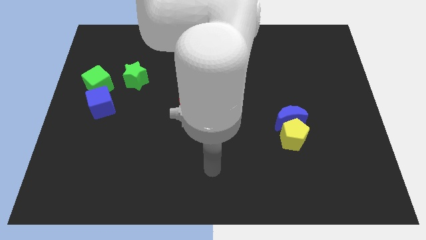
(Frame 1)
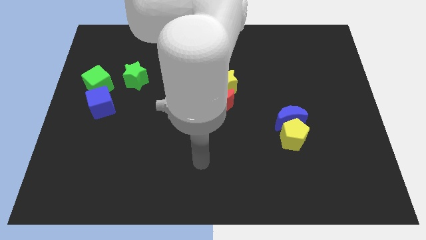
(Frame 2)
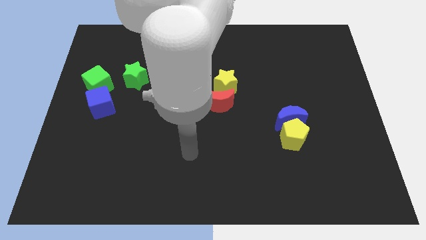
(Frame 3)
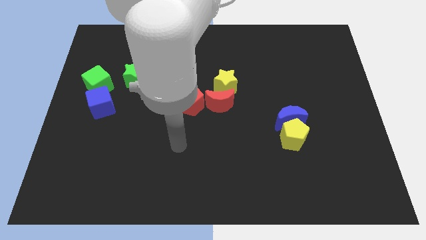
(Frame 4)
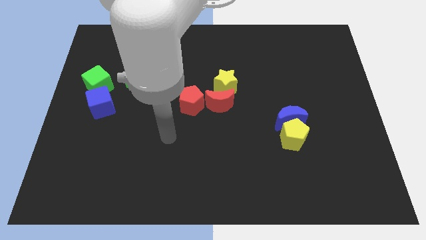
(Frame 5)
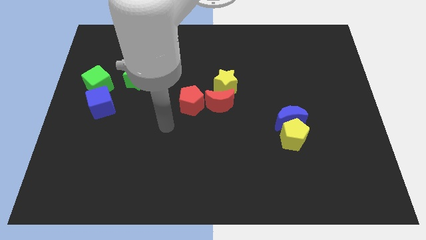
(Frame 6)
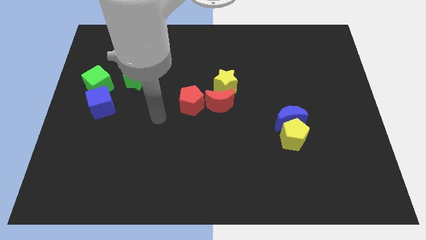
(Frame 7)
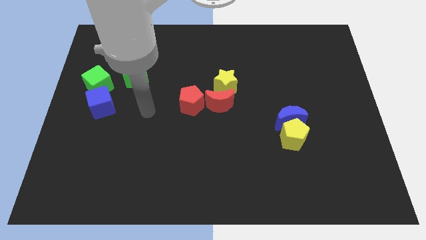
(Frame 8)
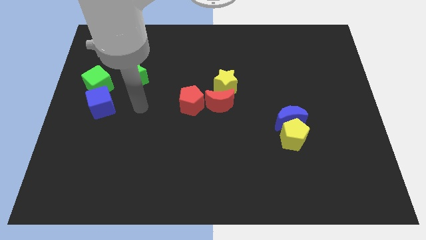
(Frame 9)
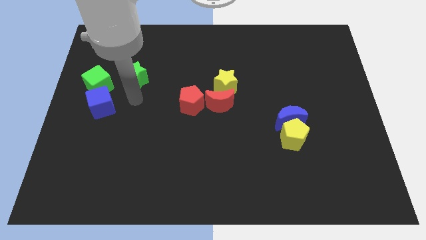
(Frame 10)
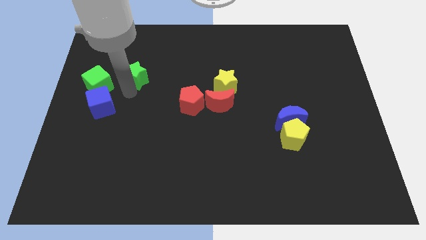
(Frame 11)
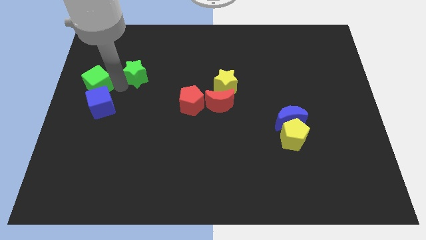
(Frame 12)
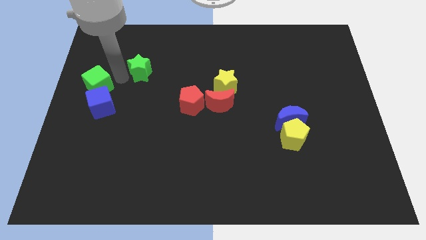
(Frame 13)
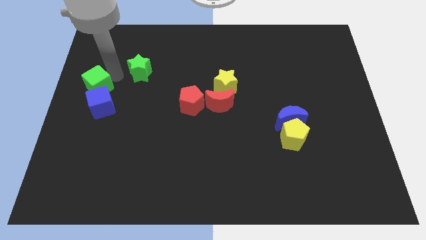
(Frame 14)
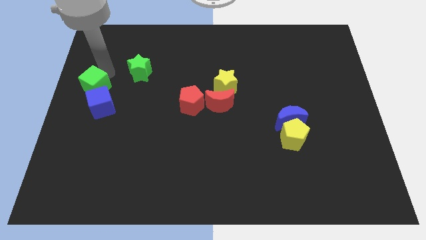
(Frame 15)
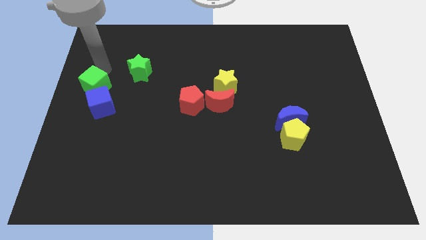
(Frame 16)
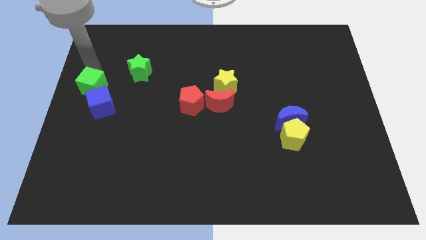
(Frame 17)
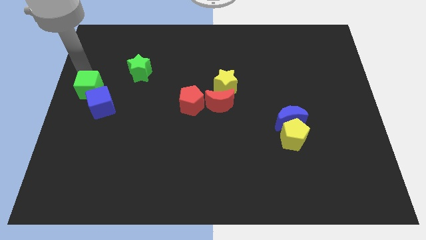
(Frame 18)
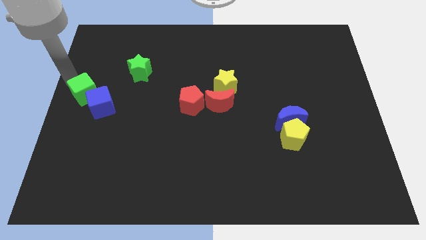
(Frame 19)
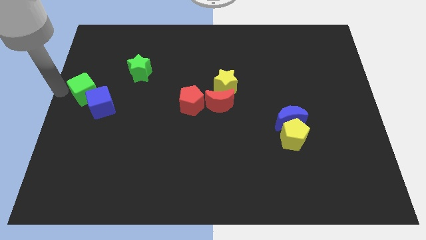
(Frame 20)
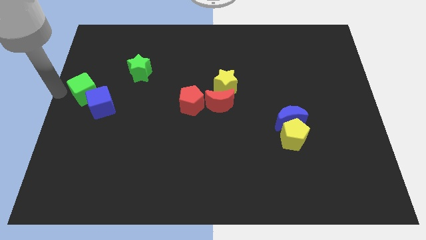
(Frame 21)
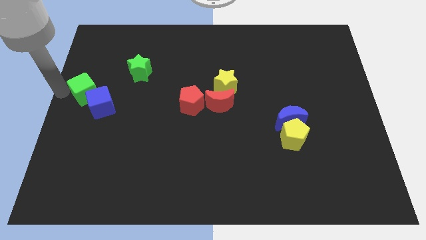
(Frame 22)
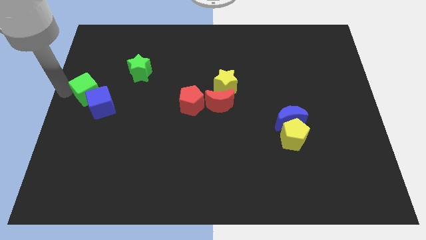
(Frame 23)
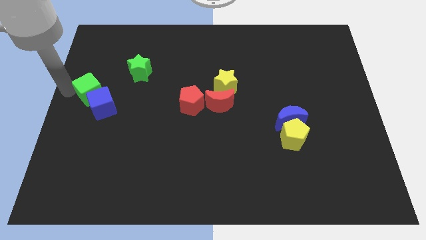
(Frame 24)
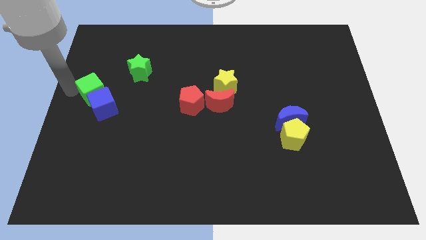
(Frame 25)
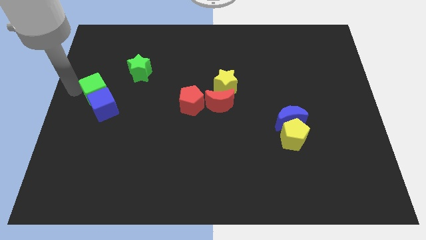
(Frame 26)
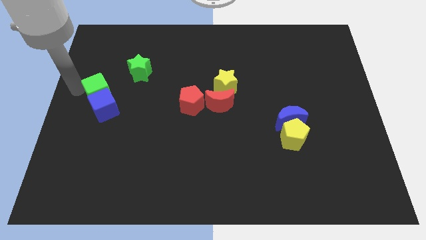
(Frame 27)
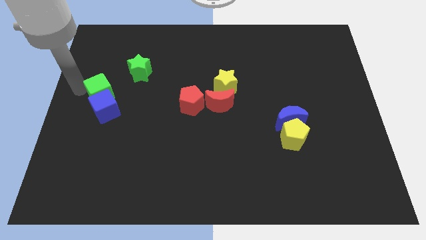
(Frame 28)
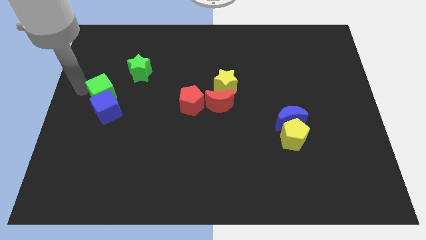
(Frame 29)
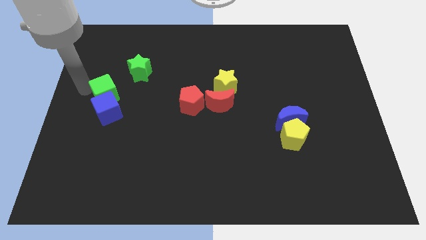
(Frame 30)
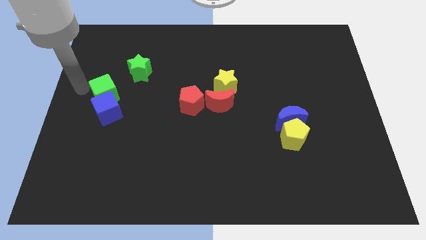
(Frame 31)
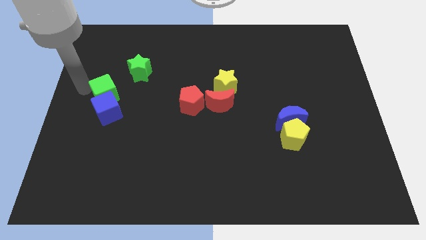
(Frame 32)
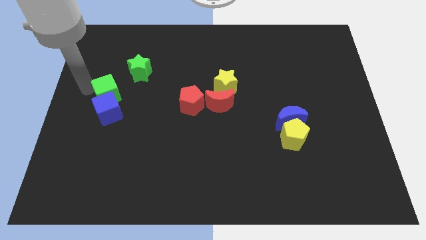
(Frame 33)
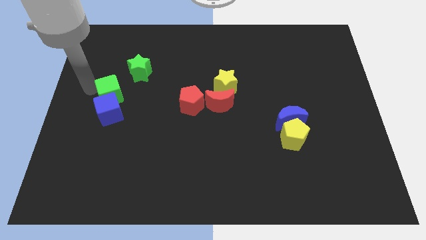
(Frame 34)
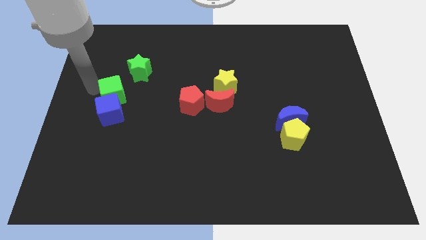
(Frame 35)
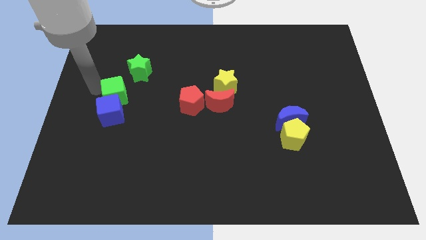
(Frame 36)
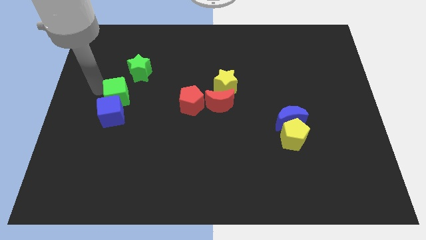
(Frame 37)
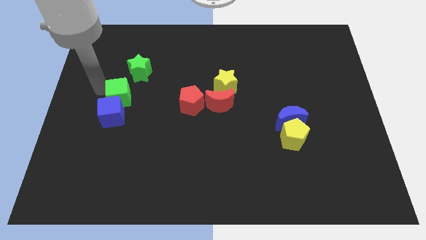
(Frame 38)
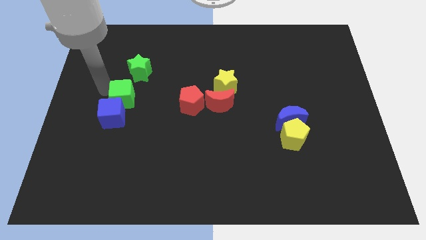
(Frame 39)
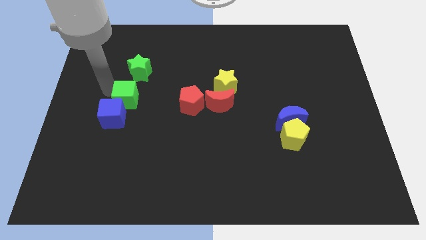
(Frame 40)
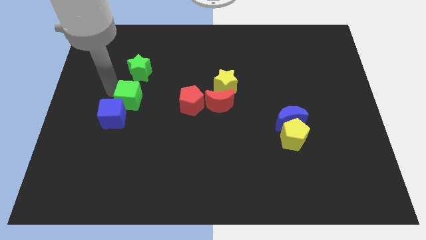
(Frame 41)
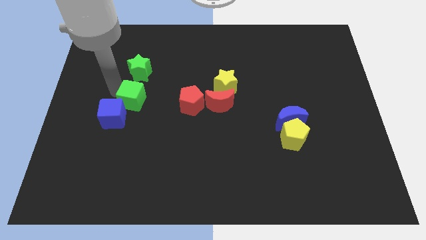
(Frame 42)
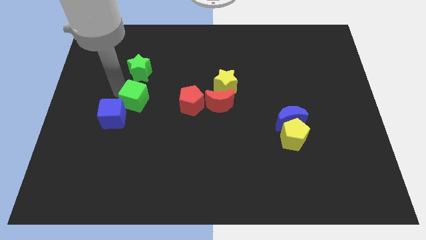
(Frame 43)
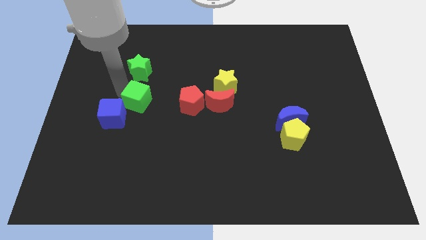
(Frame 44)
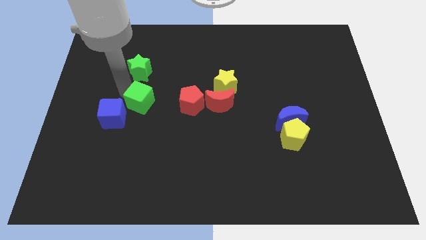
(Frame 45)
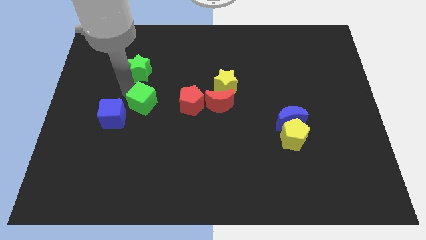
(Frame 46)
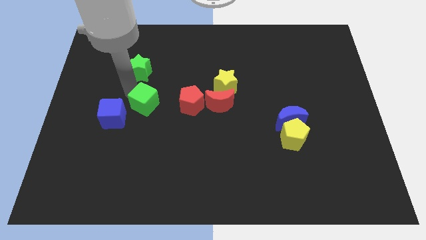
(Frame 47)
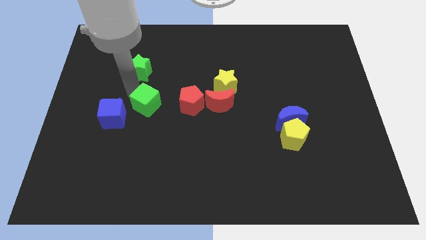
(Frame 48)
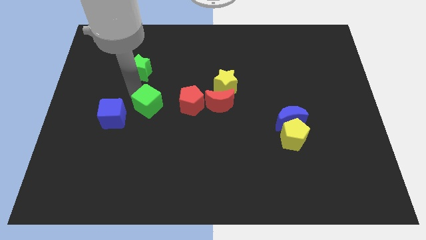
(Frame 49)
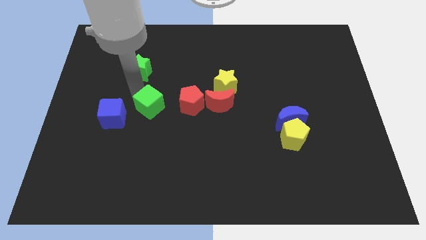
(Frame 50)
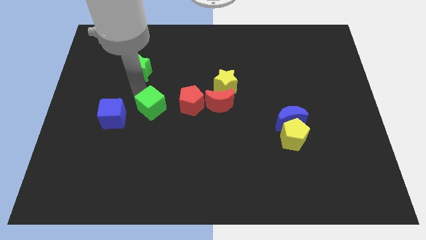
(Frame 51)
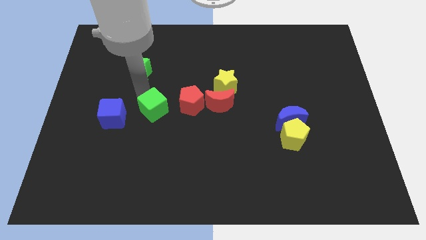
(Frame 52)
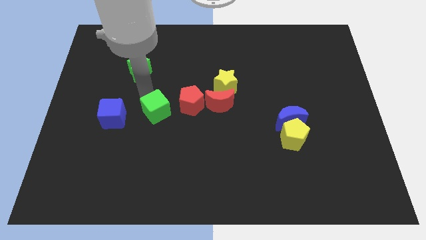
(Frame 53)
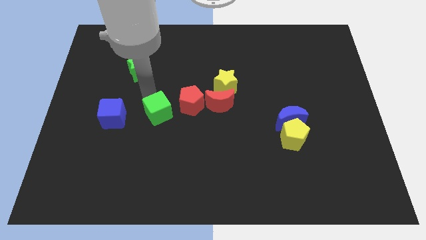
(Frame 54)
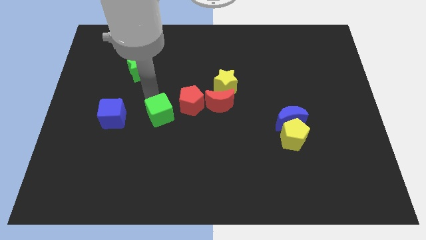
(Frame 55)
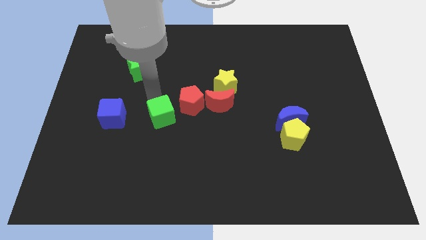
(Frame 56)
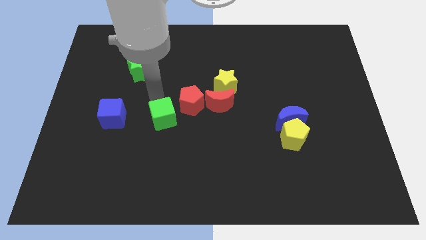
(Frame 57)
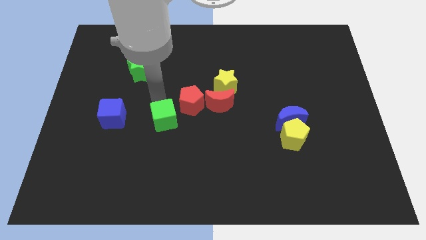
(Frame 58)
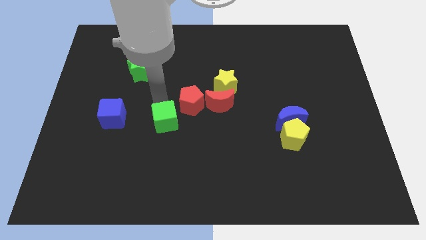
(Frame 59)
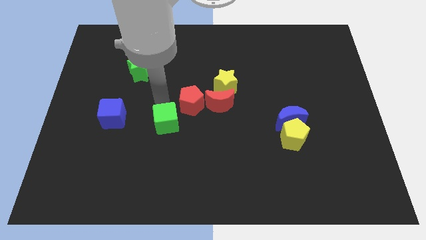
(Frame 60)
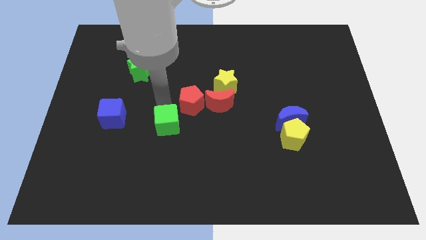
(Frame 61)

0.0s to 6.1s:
slide the green cube diagonally downwards and to the right

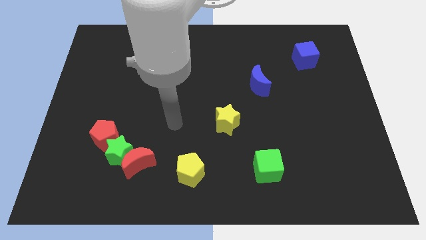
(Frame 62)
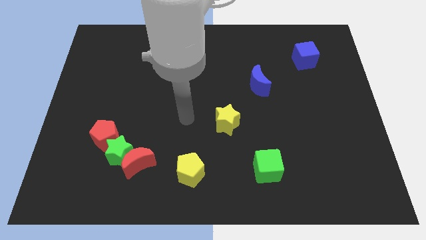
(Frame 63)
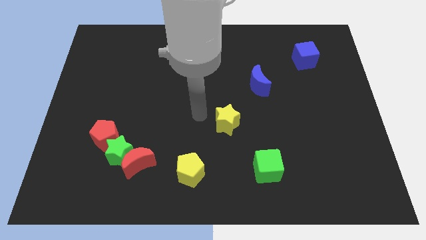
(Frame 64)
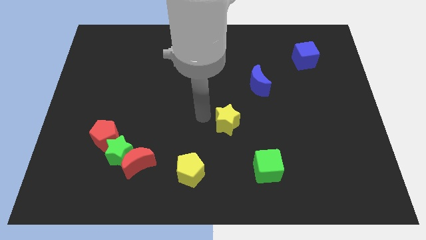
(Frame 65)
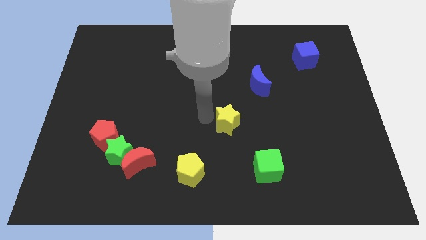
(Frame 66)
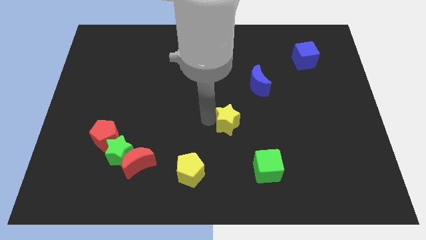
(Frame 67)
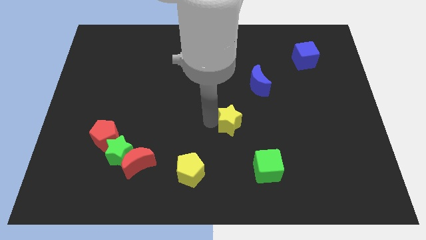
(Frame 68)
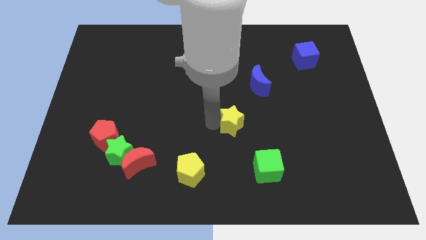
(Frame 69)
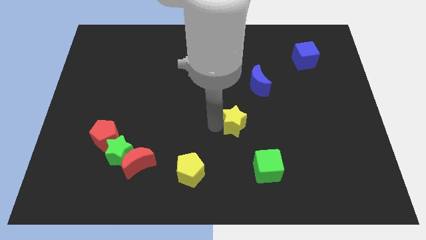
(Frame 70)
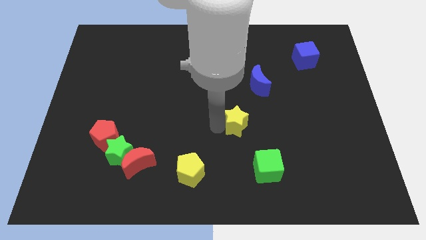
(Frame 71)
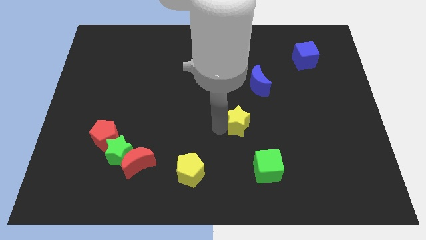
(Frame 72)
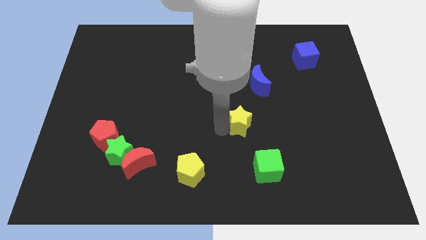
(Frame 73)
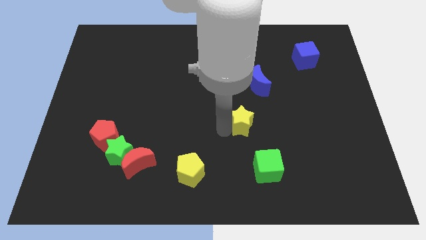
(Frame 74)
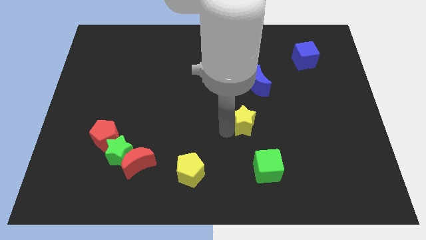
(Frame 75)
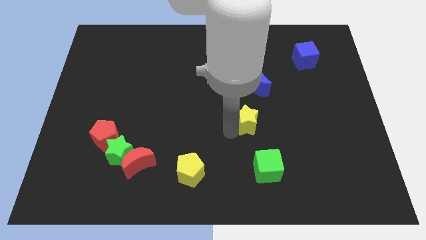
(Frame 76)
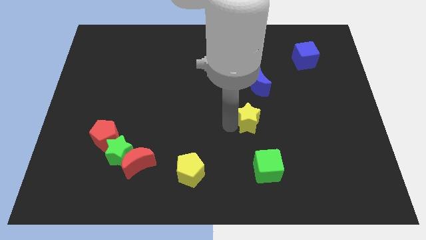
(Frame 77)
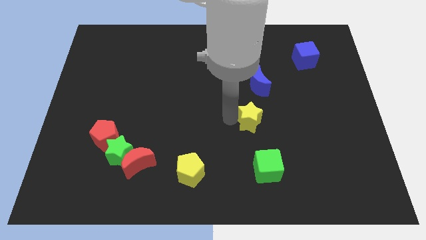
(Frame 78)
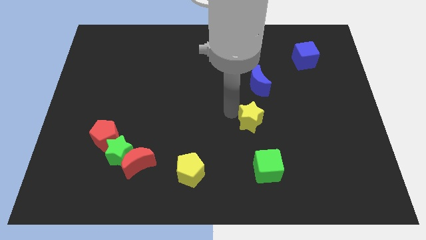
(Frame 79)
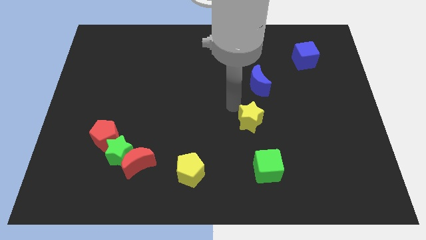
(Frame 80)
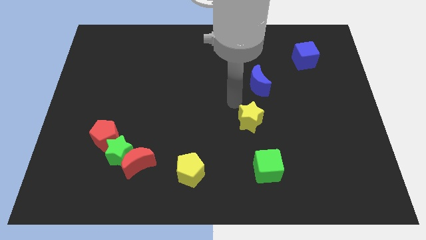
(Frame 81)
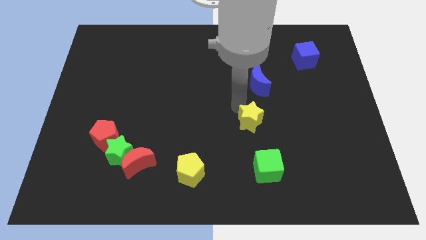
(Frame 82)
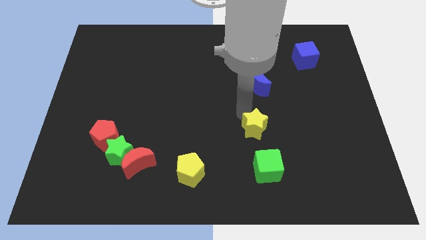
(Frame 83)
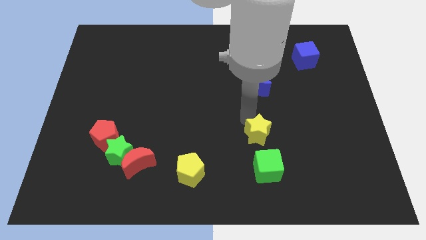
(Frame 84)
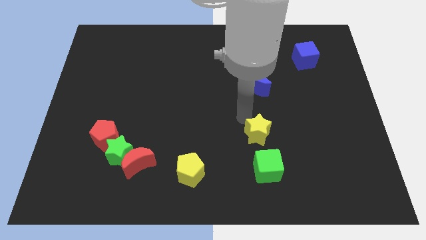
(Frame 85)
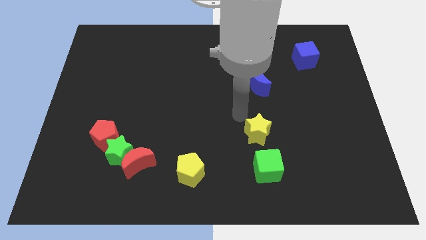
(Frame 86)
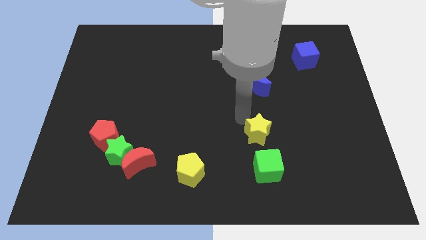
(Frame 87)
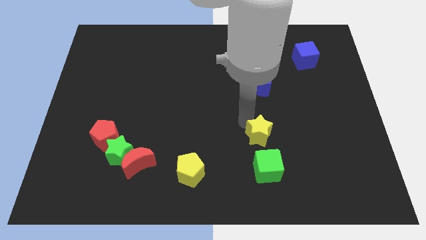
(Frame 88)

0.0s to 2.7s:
move the yellow star downwards and to the right diagonally somewhat
